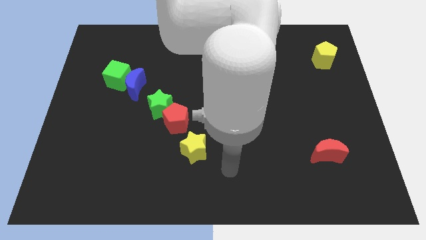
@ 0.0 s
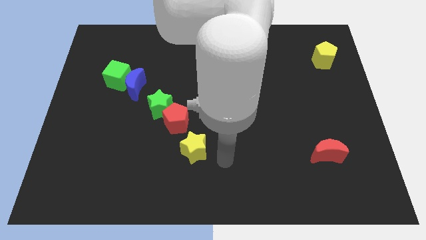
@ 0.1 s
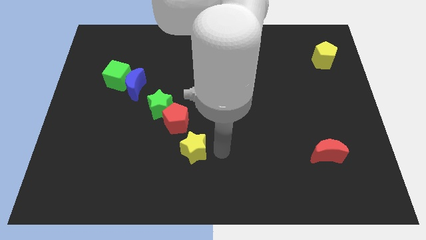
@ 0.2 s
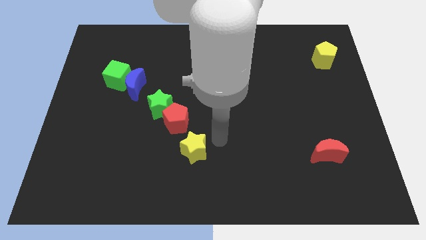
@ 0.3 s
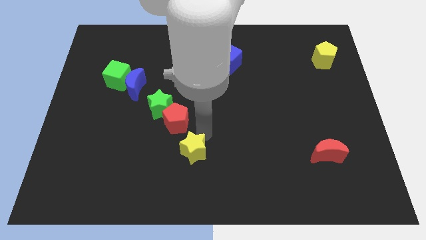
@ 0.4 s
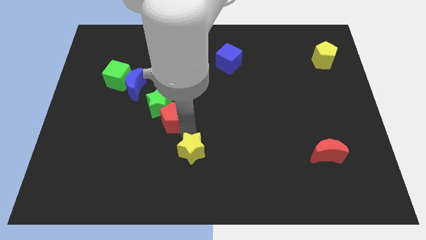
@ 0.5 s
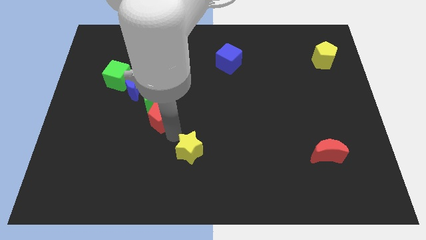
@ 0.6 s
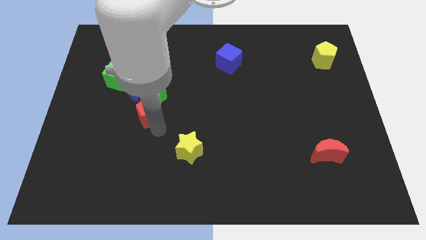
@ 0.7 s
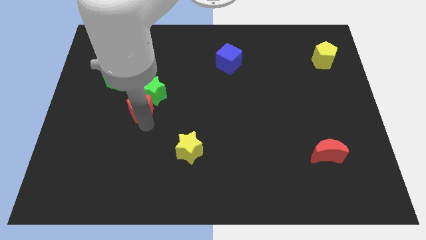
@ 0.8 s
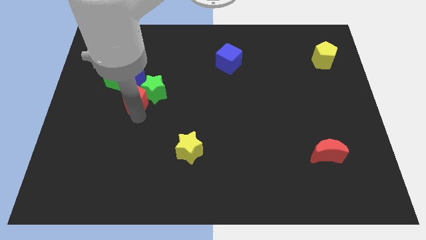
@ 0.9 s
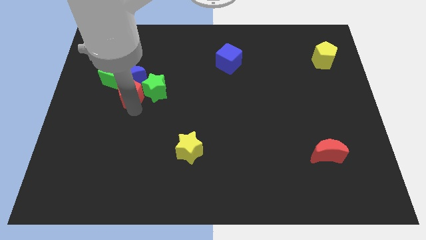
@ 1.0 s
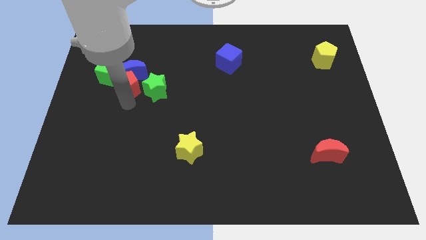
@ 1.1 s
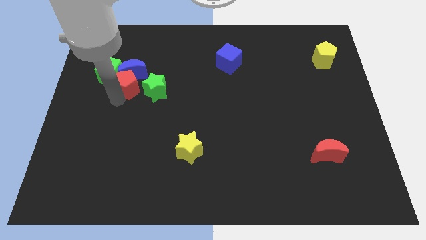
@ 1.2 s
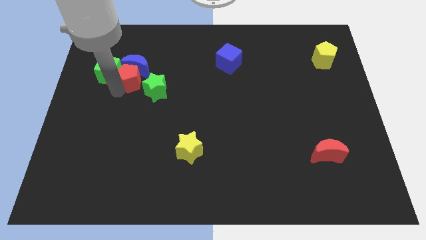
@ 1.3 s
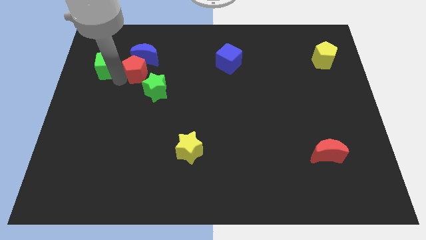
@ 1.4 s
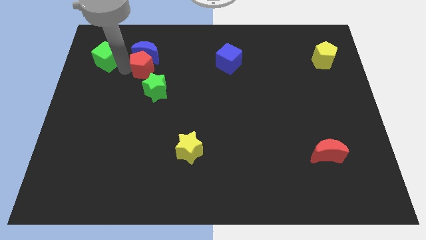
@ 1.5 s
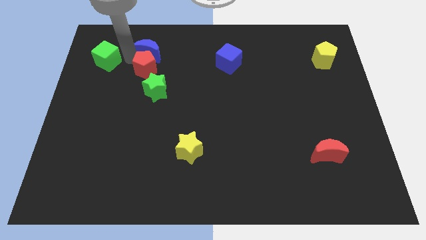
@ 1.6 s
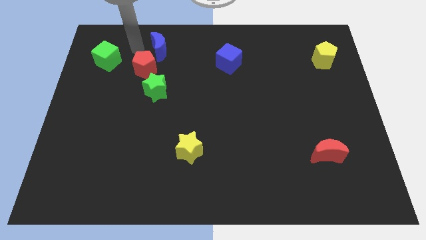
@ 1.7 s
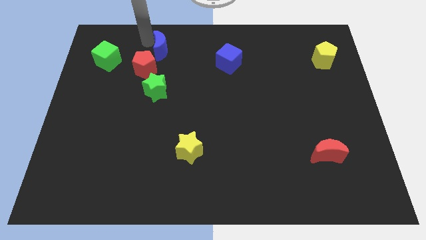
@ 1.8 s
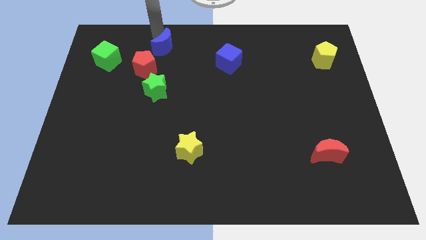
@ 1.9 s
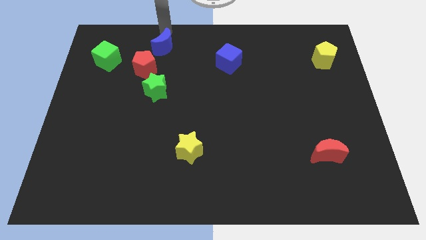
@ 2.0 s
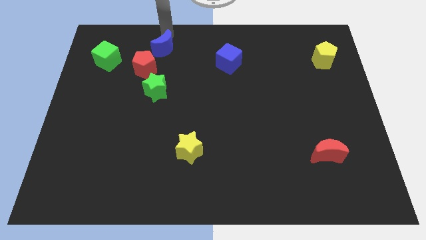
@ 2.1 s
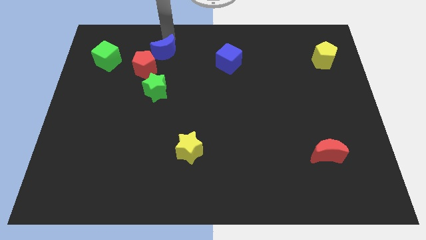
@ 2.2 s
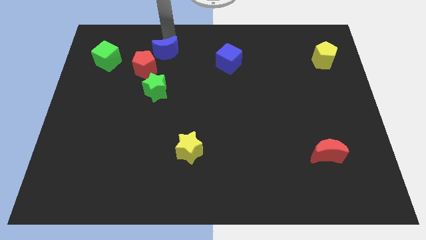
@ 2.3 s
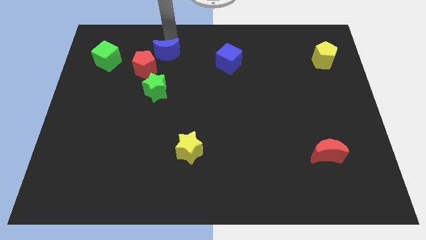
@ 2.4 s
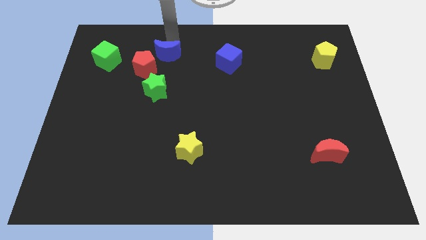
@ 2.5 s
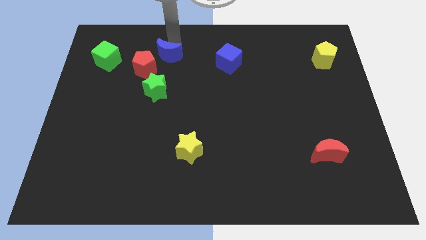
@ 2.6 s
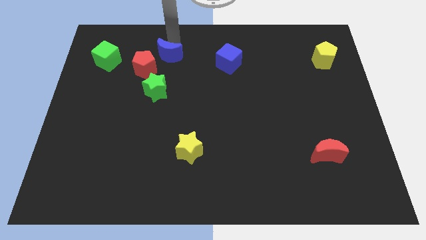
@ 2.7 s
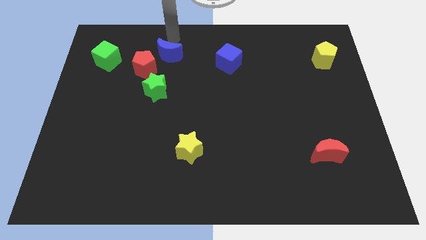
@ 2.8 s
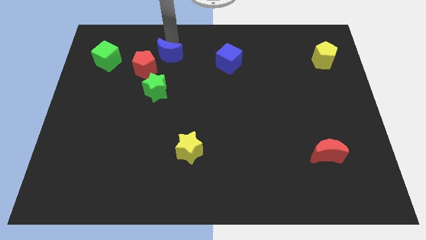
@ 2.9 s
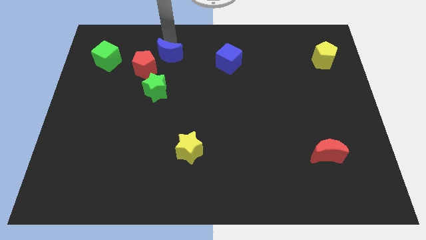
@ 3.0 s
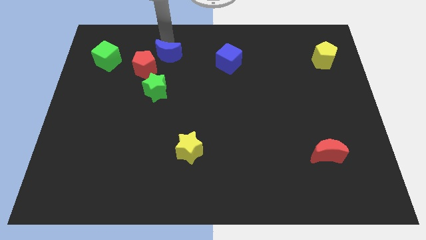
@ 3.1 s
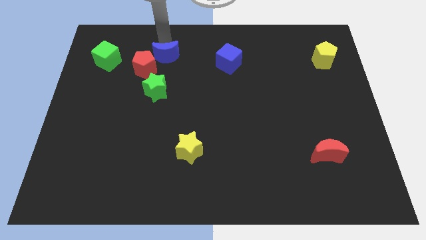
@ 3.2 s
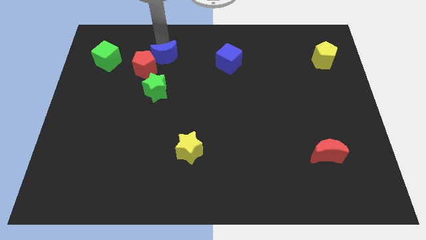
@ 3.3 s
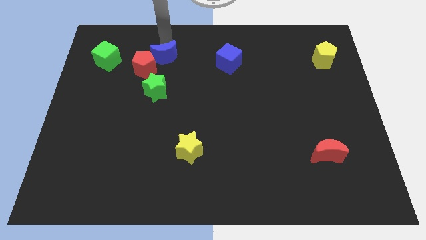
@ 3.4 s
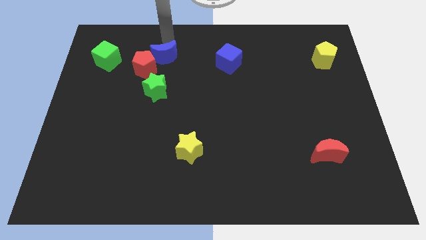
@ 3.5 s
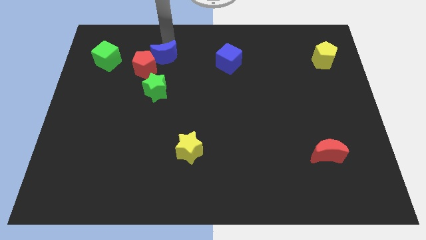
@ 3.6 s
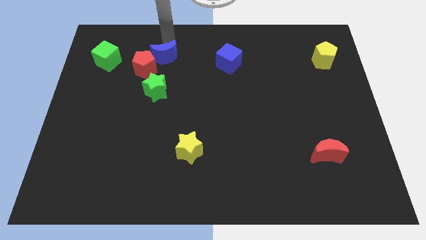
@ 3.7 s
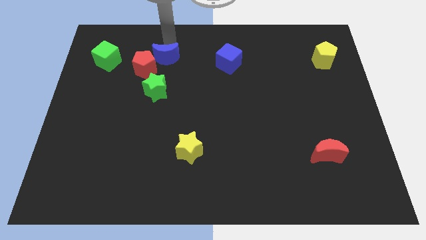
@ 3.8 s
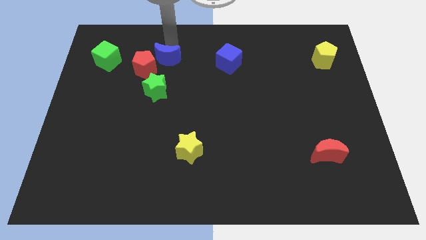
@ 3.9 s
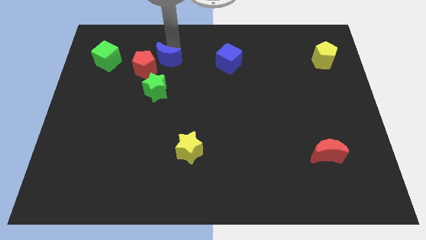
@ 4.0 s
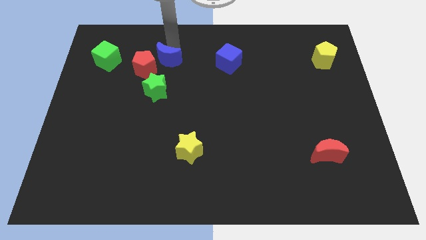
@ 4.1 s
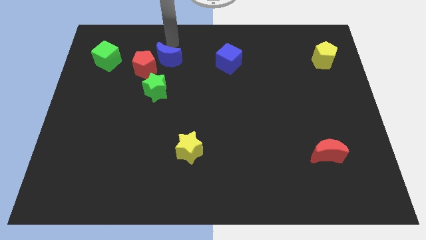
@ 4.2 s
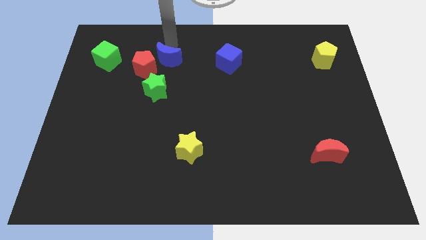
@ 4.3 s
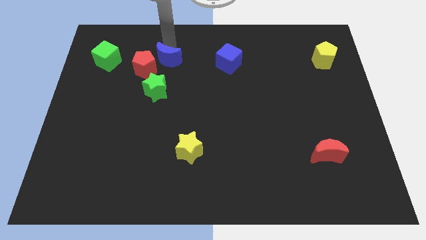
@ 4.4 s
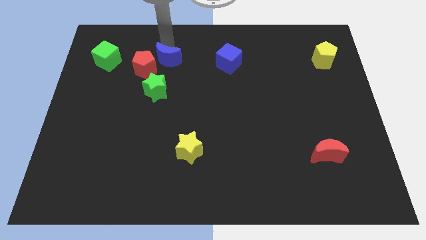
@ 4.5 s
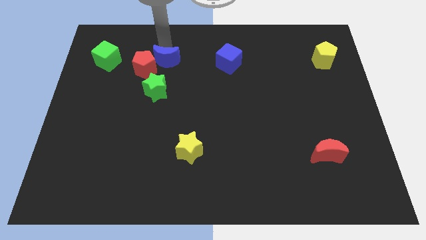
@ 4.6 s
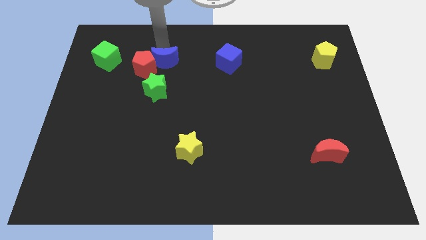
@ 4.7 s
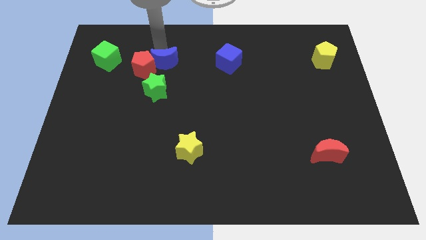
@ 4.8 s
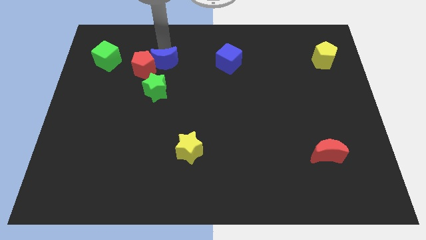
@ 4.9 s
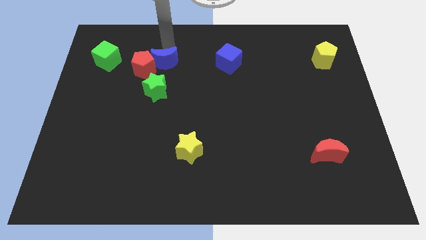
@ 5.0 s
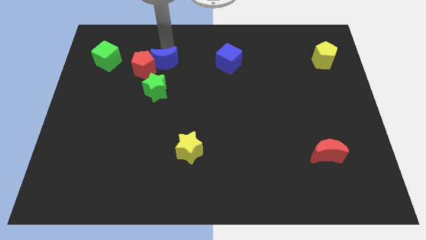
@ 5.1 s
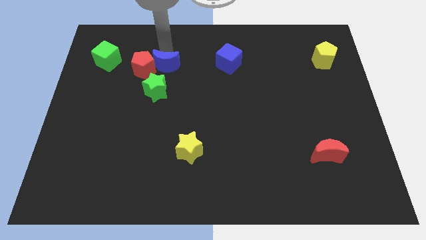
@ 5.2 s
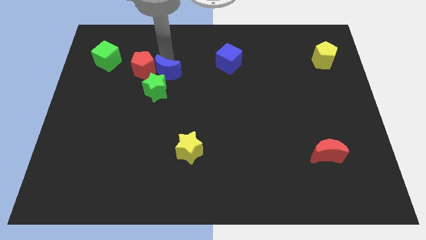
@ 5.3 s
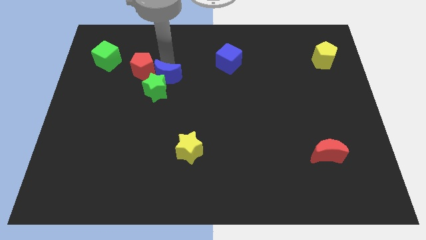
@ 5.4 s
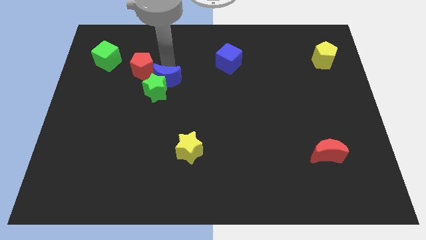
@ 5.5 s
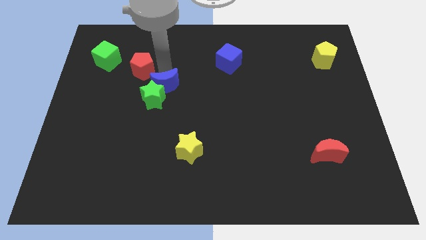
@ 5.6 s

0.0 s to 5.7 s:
slide the blue moon to the center of the board

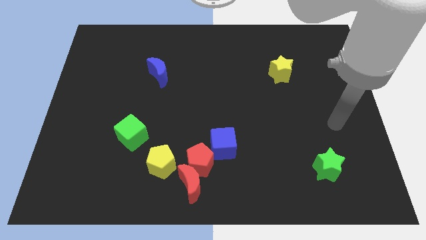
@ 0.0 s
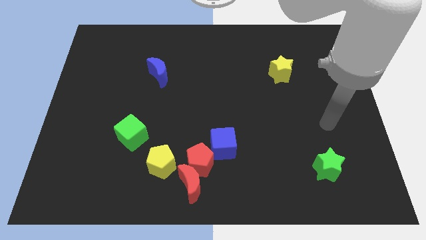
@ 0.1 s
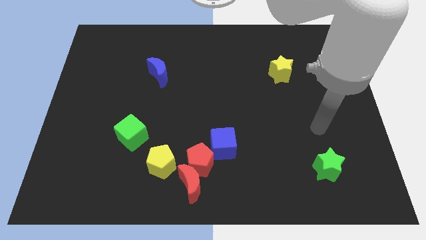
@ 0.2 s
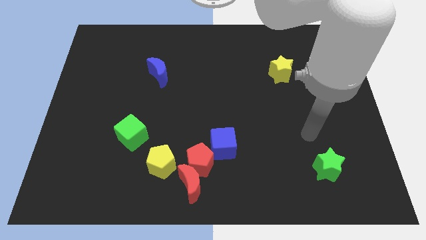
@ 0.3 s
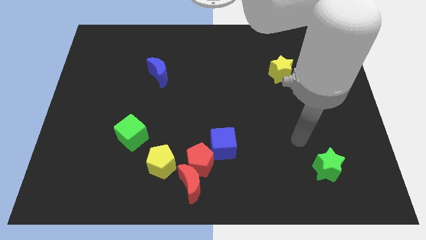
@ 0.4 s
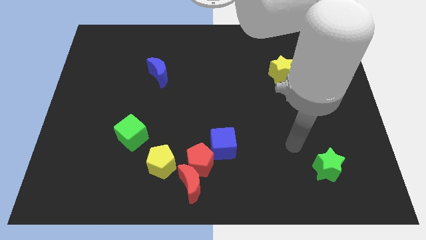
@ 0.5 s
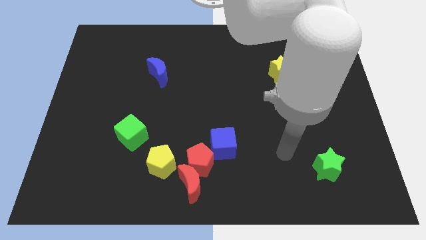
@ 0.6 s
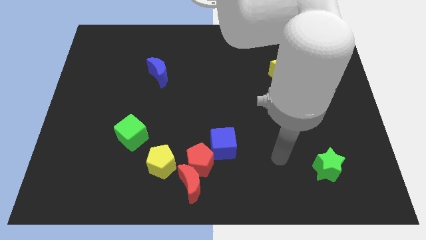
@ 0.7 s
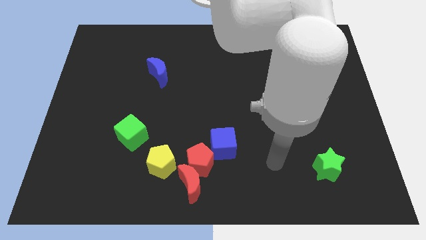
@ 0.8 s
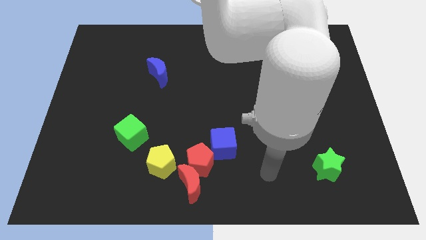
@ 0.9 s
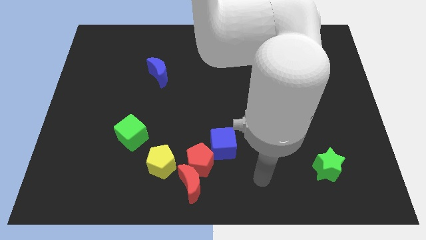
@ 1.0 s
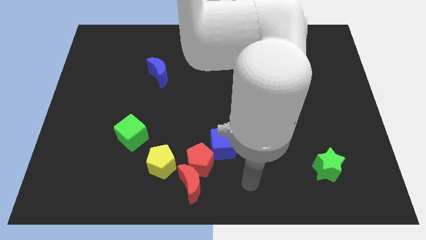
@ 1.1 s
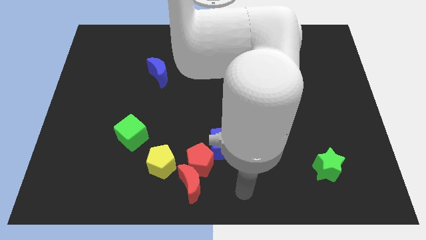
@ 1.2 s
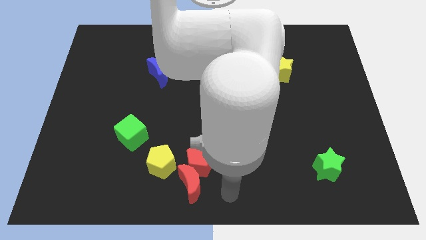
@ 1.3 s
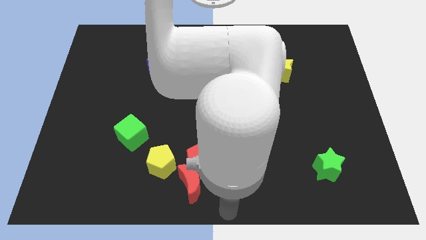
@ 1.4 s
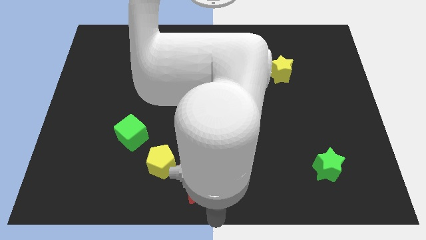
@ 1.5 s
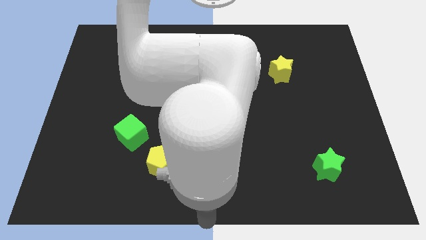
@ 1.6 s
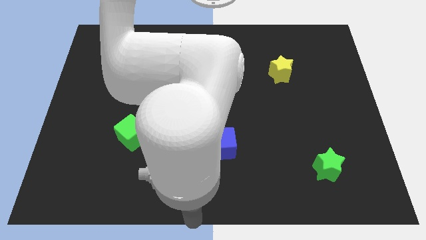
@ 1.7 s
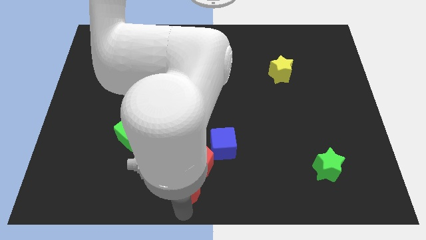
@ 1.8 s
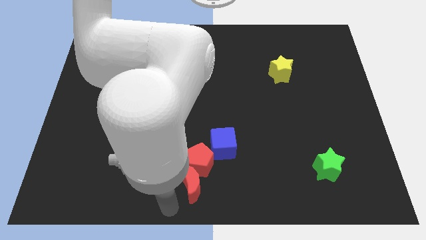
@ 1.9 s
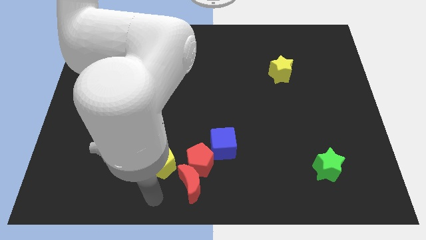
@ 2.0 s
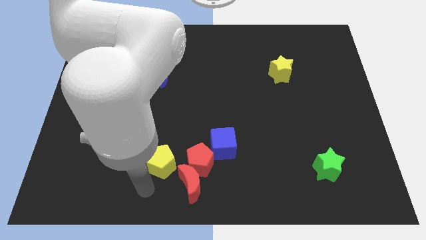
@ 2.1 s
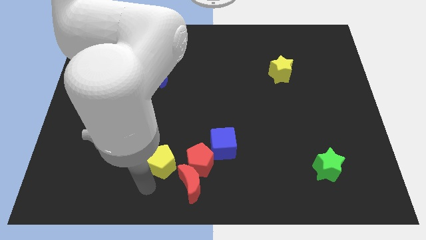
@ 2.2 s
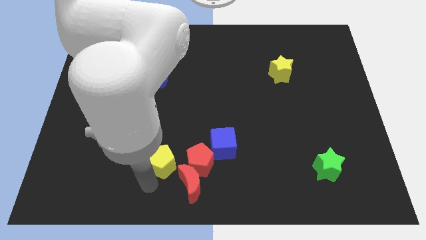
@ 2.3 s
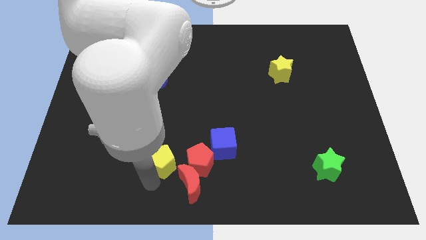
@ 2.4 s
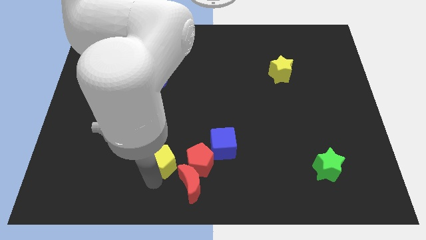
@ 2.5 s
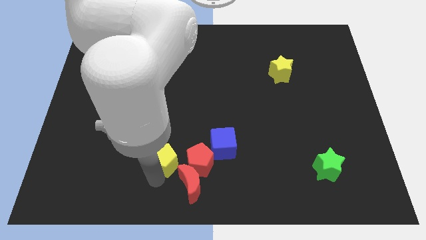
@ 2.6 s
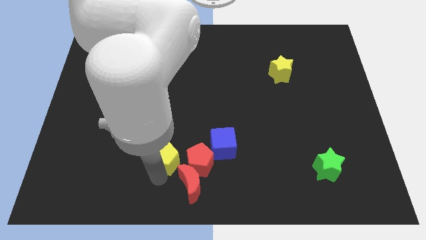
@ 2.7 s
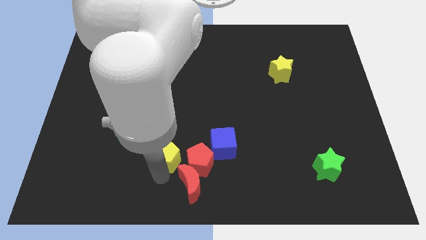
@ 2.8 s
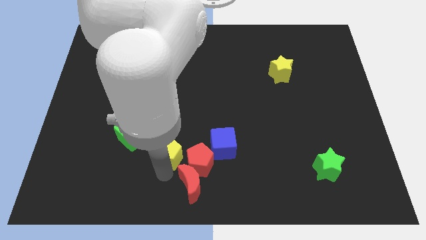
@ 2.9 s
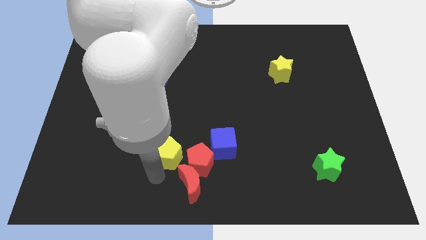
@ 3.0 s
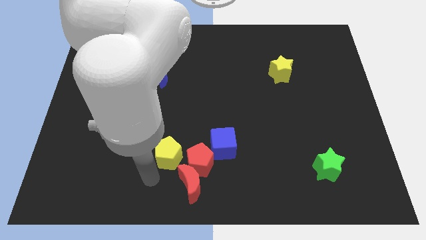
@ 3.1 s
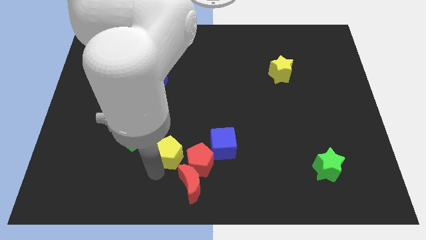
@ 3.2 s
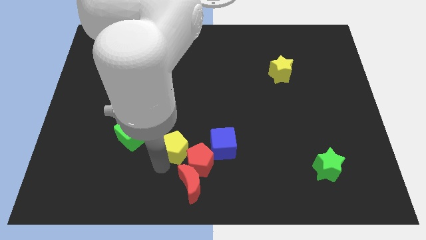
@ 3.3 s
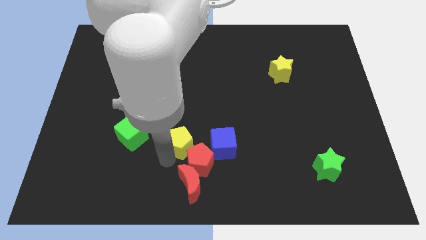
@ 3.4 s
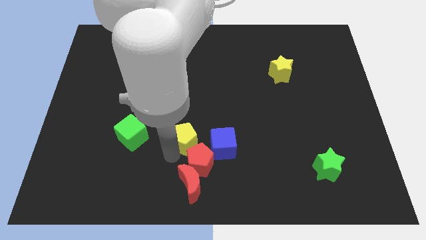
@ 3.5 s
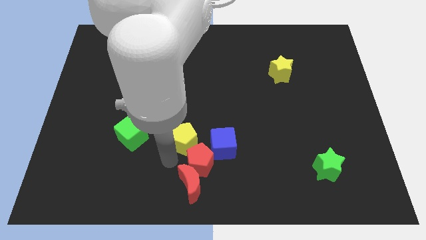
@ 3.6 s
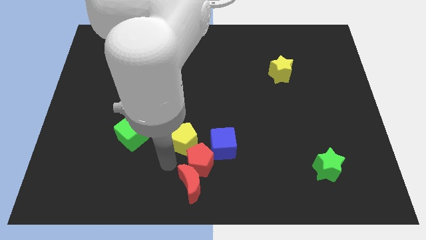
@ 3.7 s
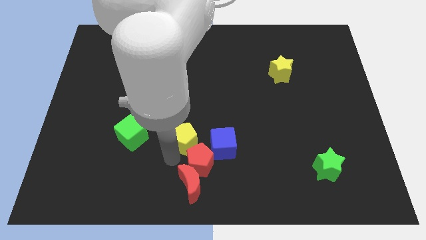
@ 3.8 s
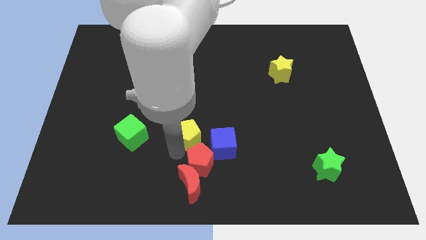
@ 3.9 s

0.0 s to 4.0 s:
put the yellow pentagon to the middle
